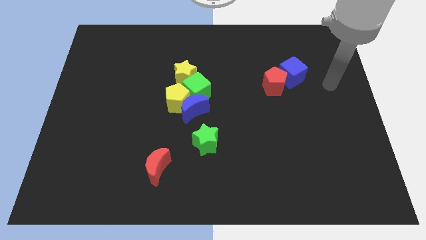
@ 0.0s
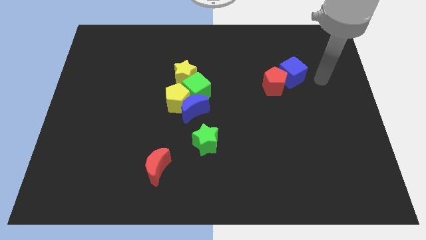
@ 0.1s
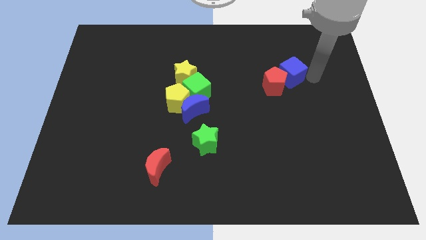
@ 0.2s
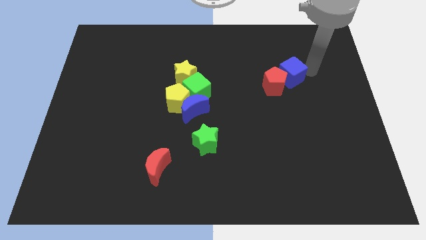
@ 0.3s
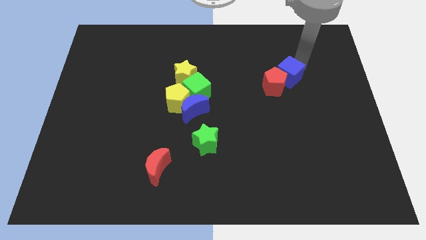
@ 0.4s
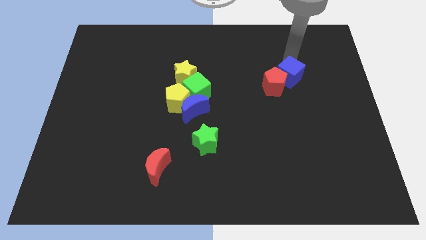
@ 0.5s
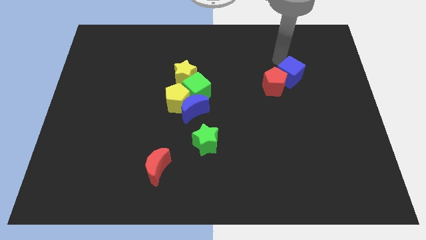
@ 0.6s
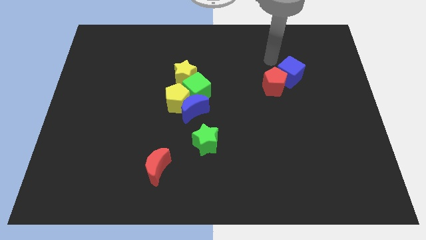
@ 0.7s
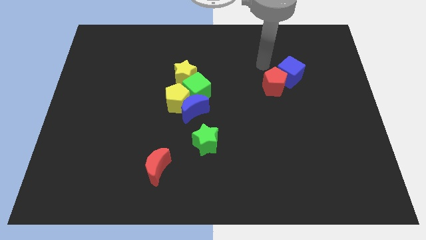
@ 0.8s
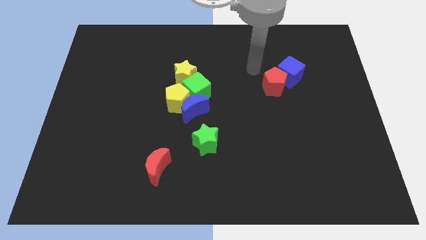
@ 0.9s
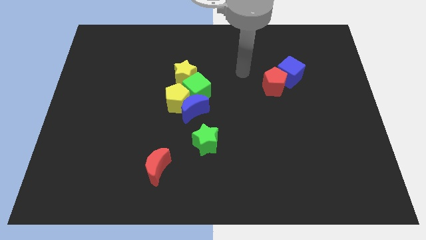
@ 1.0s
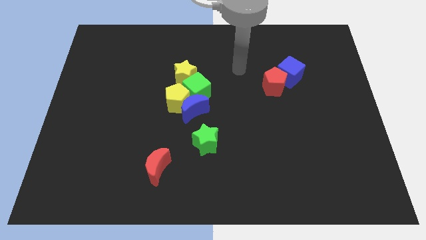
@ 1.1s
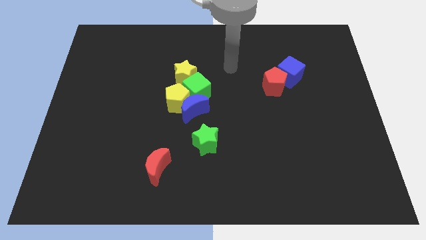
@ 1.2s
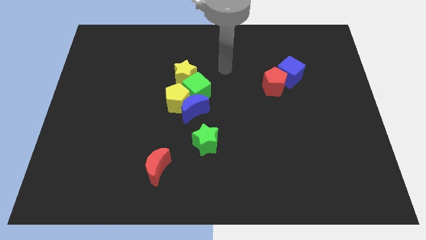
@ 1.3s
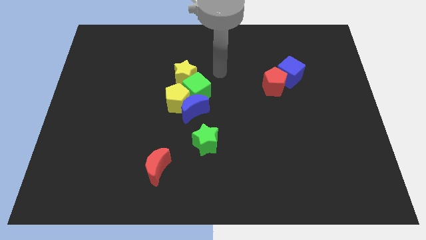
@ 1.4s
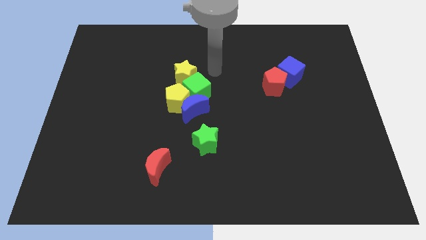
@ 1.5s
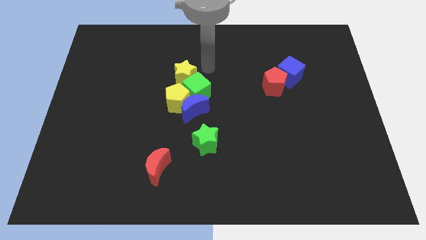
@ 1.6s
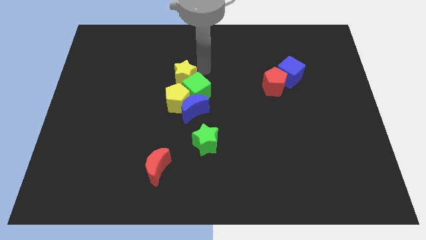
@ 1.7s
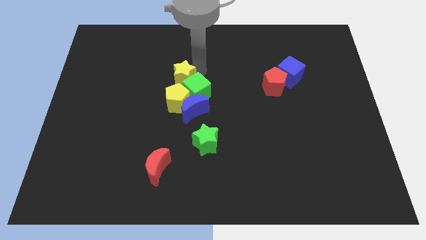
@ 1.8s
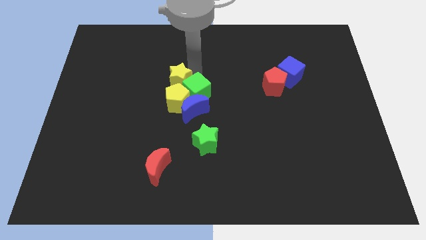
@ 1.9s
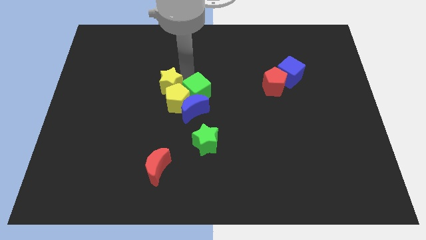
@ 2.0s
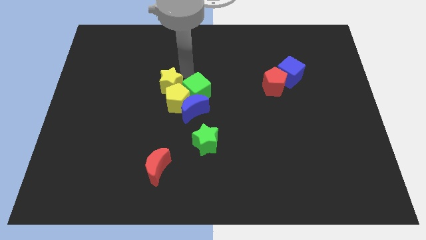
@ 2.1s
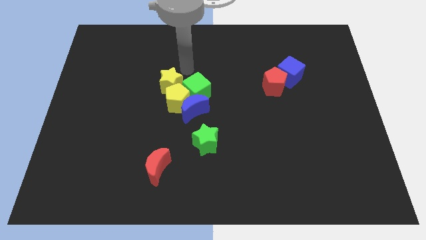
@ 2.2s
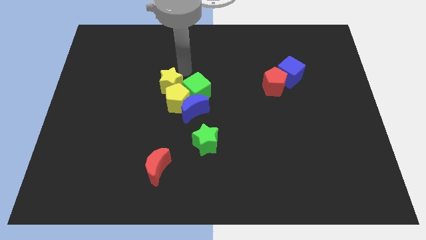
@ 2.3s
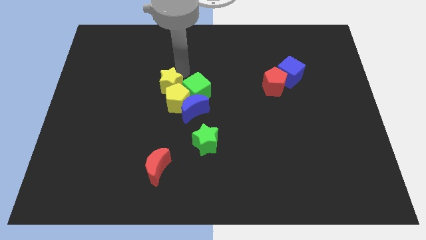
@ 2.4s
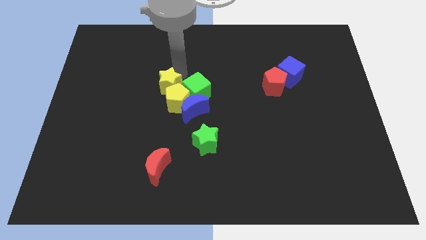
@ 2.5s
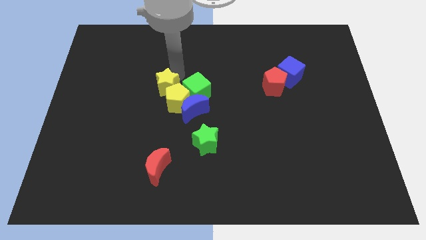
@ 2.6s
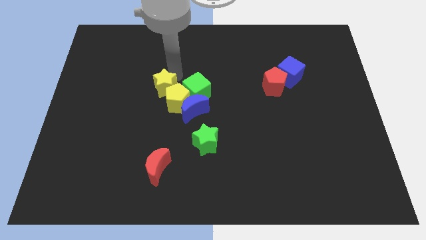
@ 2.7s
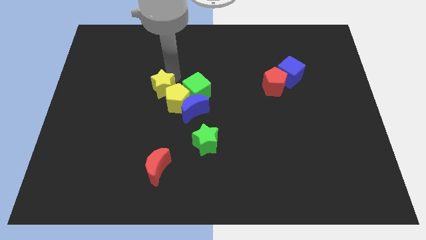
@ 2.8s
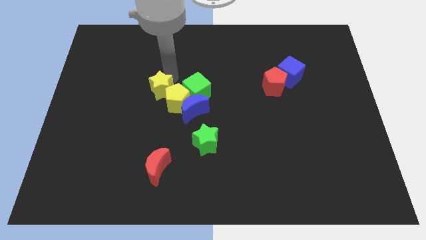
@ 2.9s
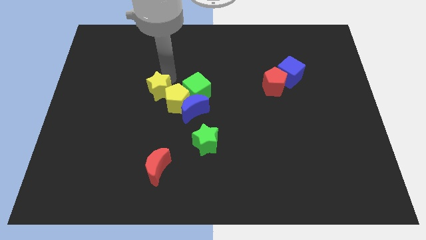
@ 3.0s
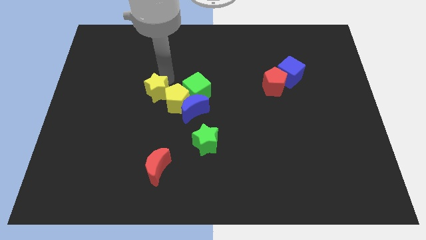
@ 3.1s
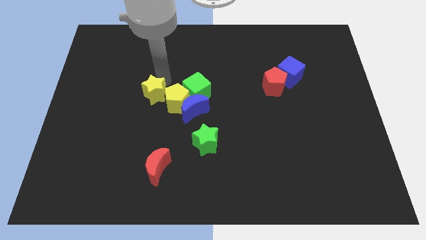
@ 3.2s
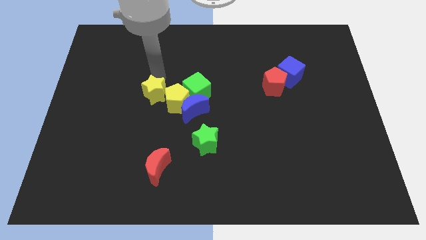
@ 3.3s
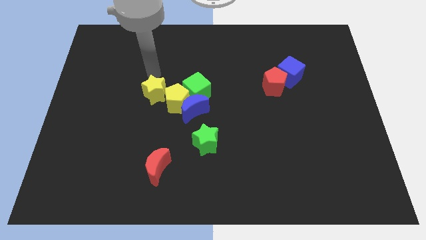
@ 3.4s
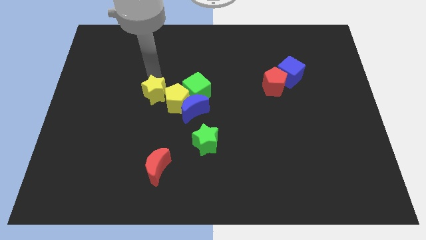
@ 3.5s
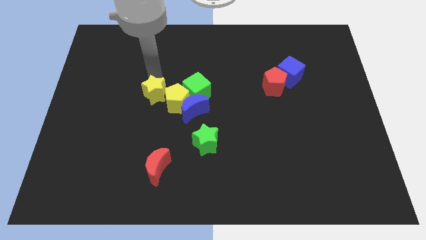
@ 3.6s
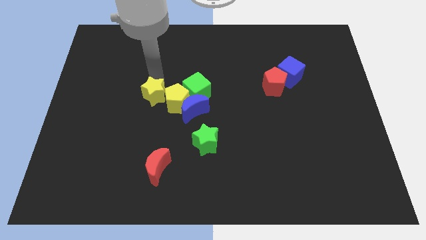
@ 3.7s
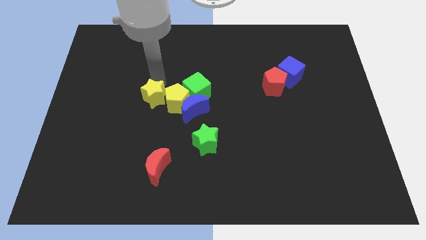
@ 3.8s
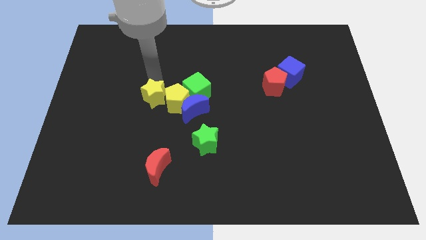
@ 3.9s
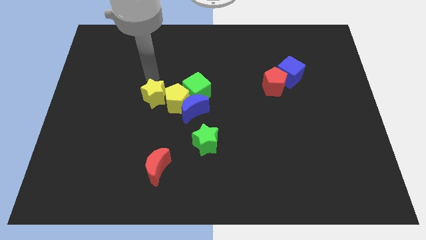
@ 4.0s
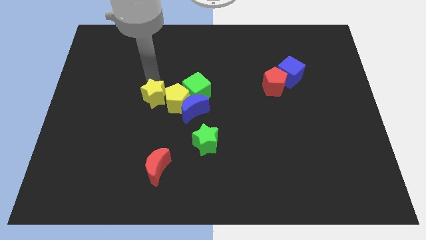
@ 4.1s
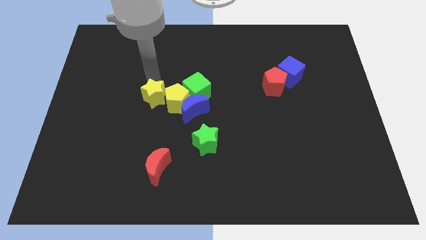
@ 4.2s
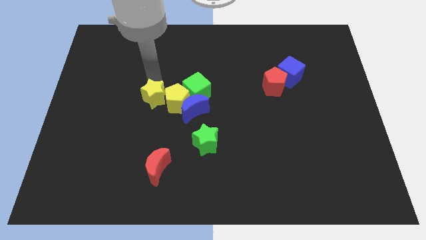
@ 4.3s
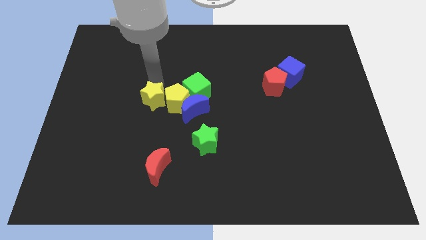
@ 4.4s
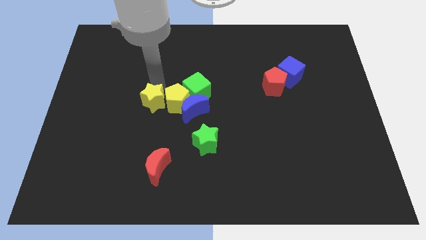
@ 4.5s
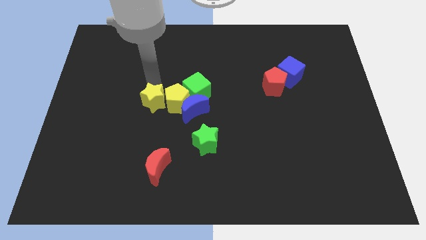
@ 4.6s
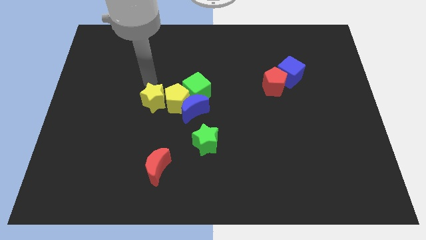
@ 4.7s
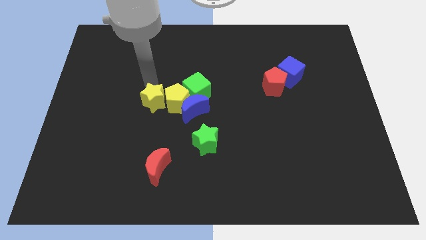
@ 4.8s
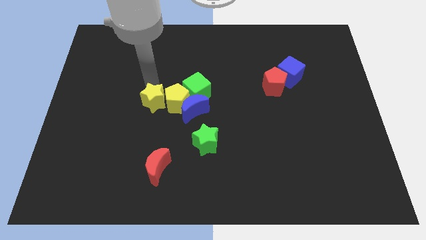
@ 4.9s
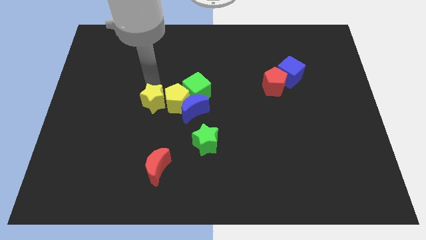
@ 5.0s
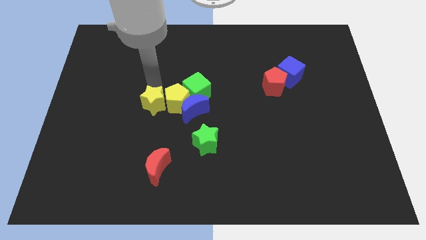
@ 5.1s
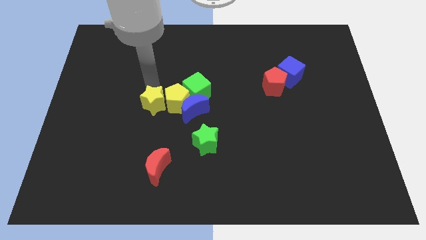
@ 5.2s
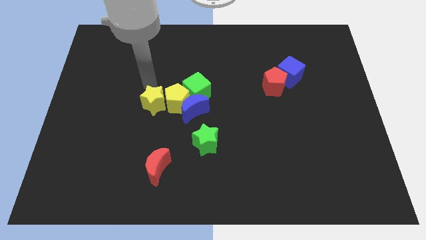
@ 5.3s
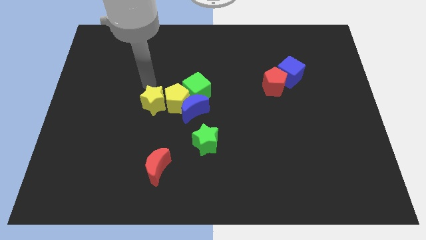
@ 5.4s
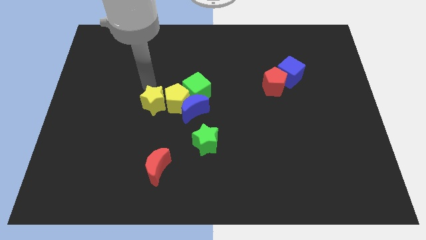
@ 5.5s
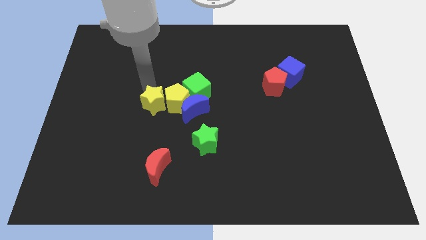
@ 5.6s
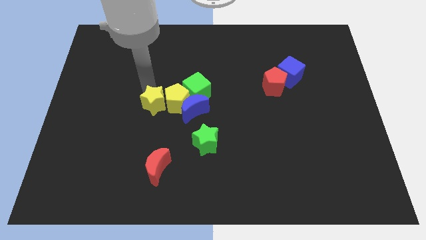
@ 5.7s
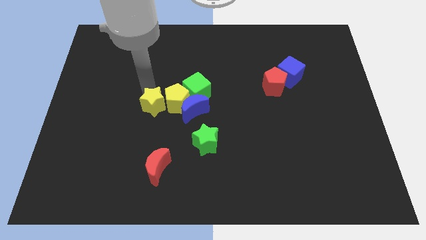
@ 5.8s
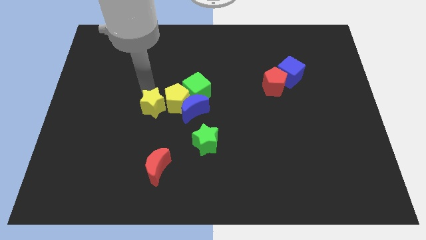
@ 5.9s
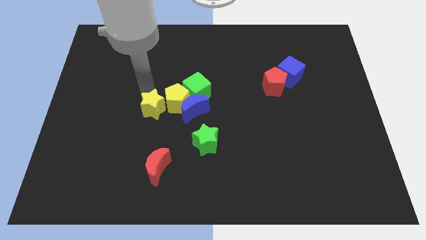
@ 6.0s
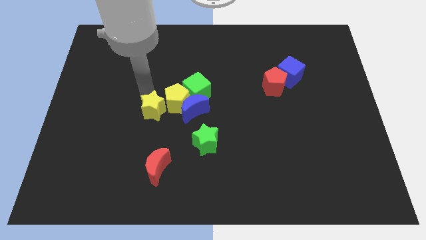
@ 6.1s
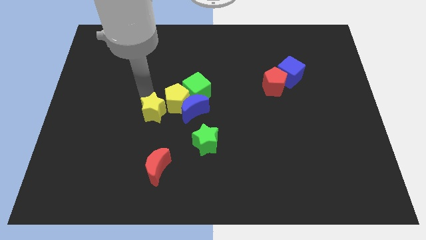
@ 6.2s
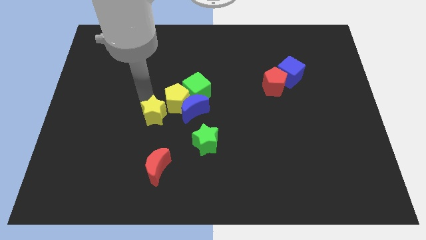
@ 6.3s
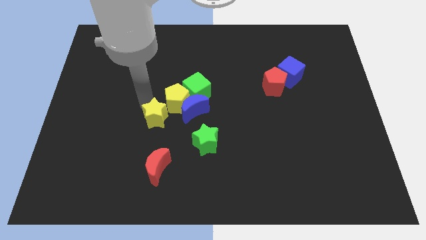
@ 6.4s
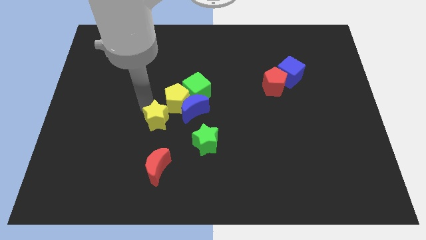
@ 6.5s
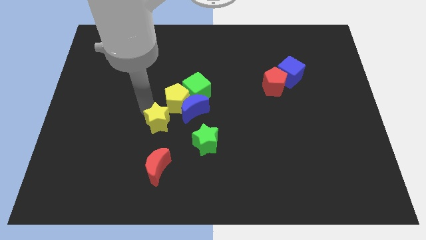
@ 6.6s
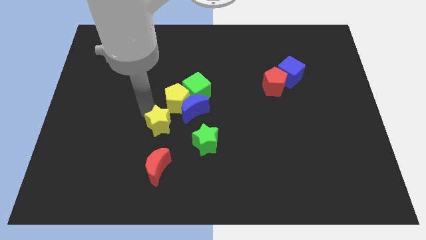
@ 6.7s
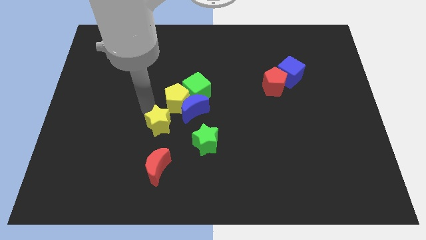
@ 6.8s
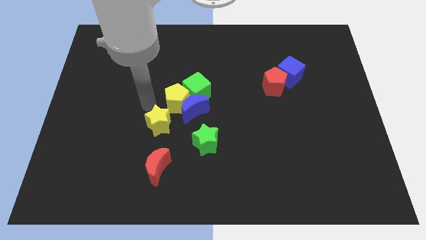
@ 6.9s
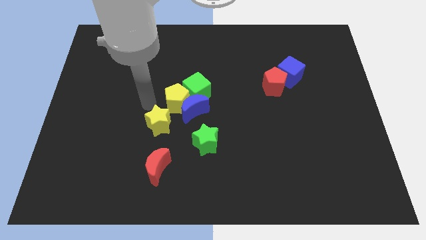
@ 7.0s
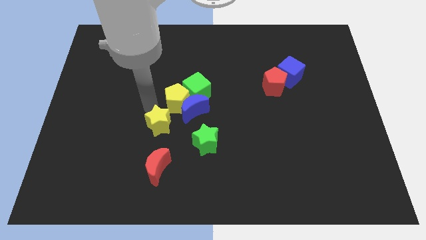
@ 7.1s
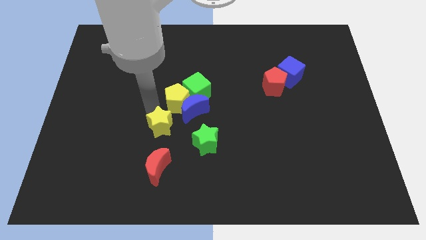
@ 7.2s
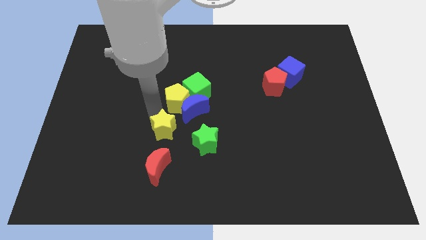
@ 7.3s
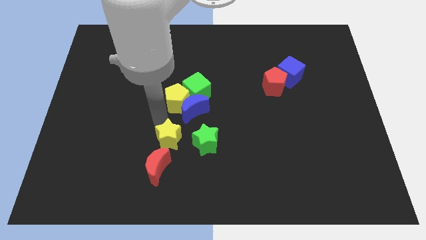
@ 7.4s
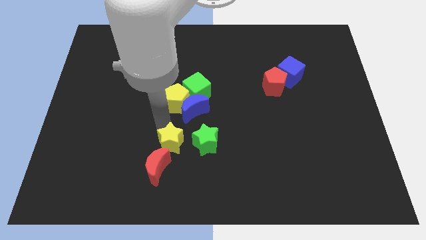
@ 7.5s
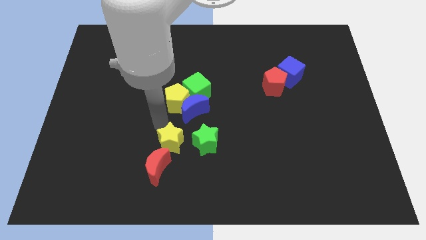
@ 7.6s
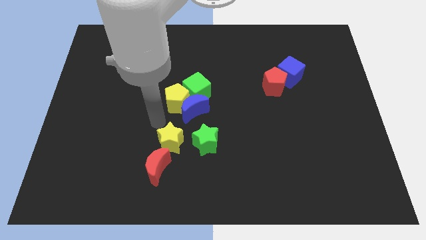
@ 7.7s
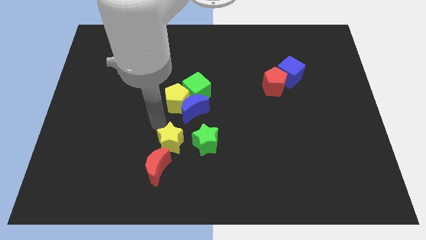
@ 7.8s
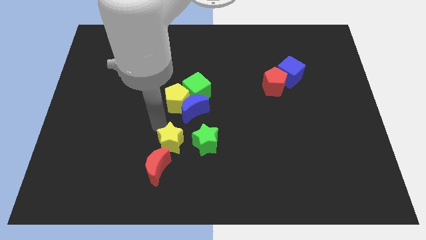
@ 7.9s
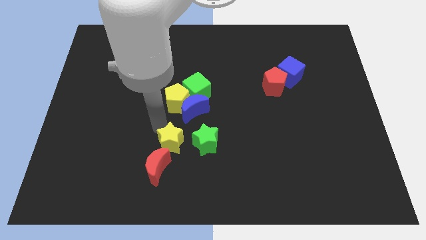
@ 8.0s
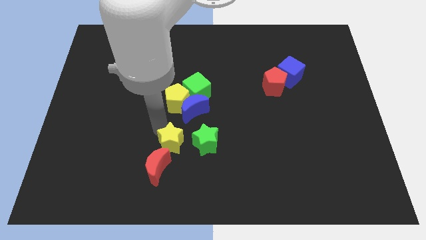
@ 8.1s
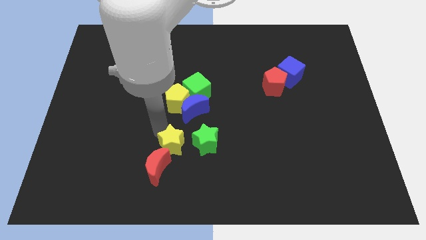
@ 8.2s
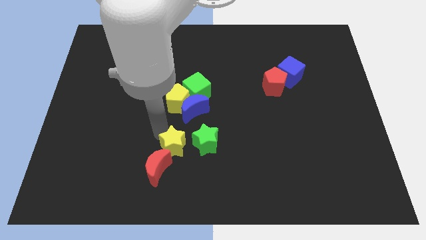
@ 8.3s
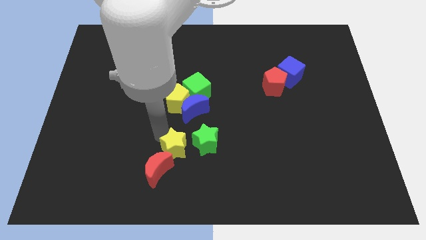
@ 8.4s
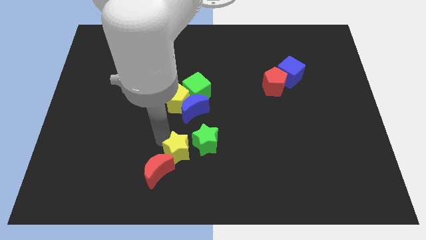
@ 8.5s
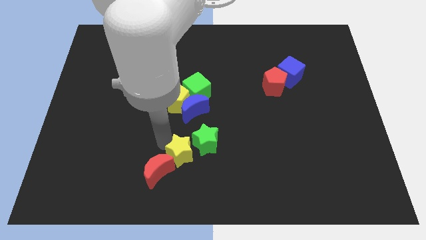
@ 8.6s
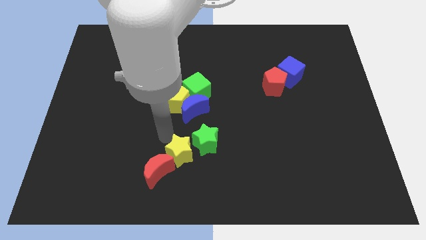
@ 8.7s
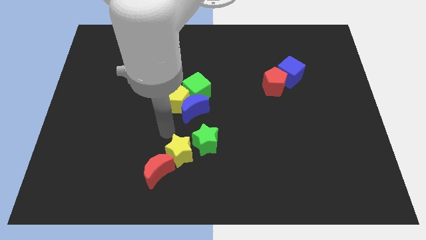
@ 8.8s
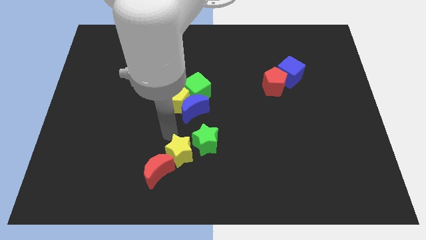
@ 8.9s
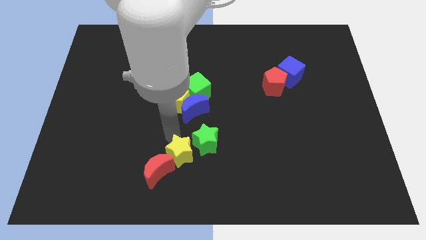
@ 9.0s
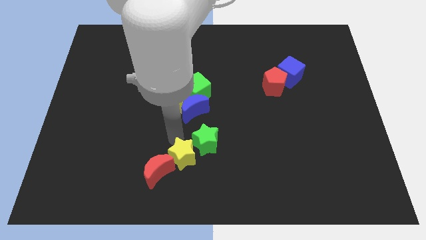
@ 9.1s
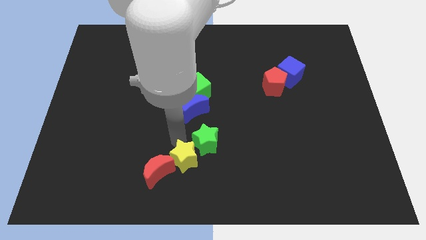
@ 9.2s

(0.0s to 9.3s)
put the yellow star to the bottom
